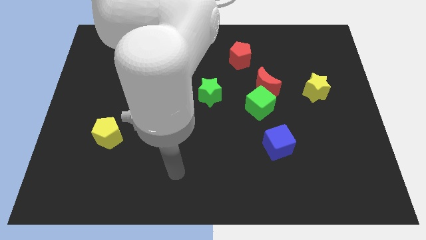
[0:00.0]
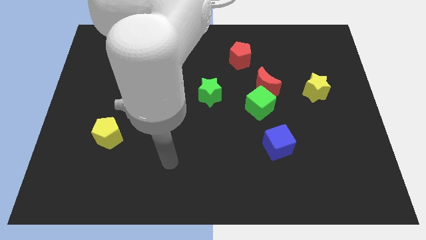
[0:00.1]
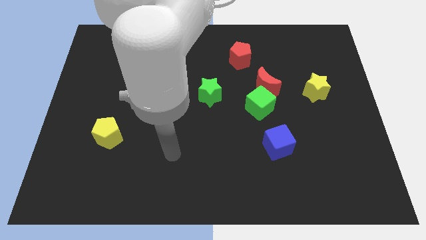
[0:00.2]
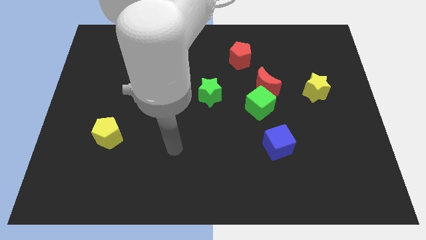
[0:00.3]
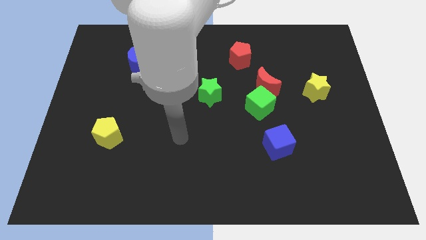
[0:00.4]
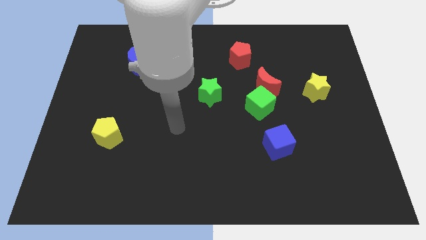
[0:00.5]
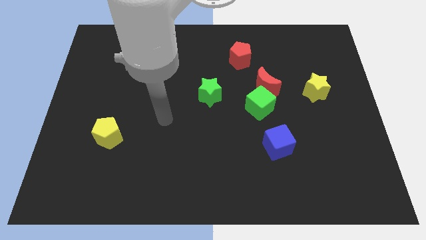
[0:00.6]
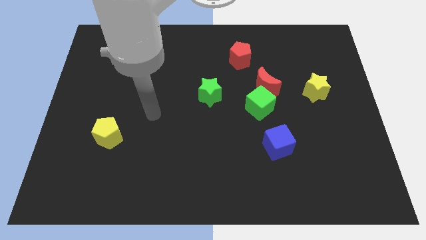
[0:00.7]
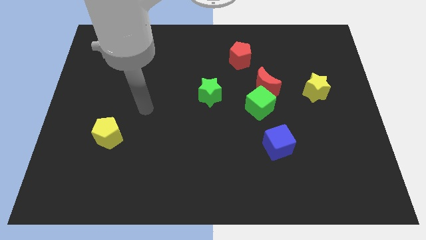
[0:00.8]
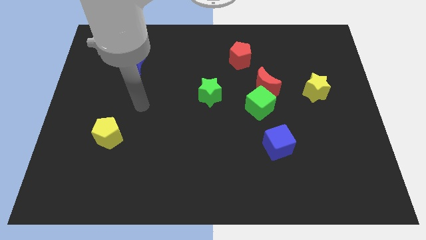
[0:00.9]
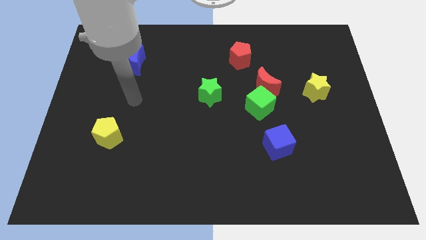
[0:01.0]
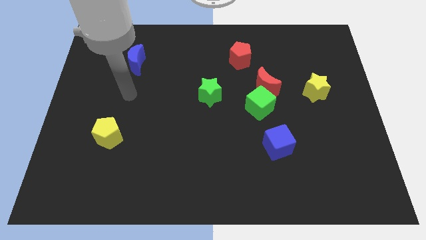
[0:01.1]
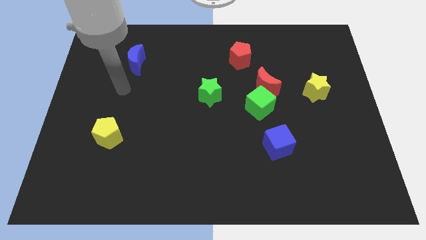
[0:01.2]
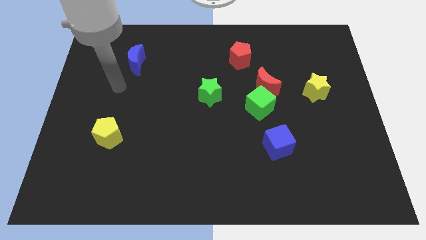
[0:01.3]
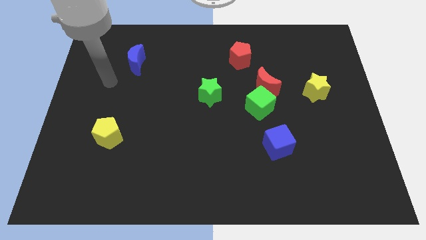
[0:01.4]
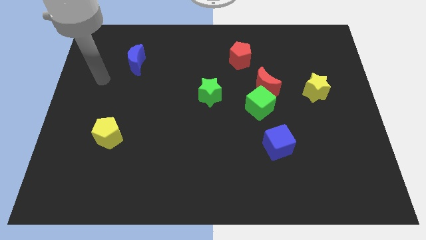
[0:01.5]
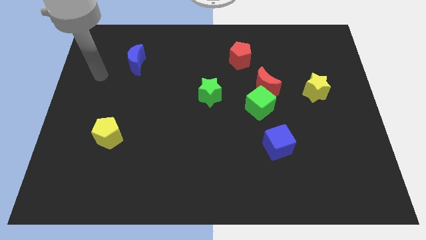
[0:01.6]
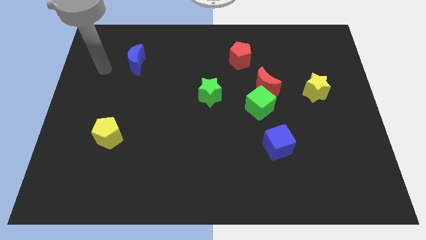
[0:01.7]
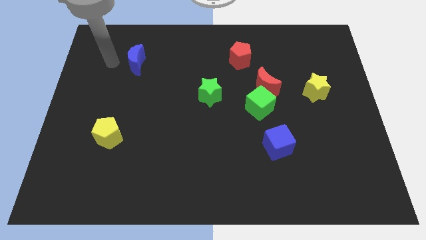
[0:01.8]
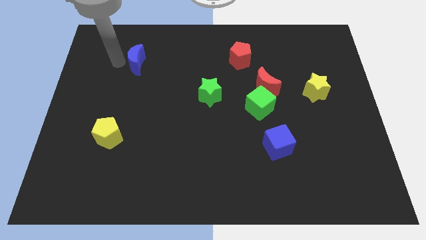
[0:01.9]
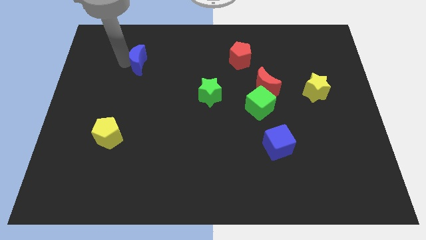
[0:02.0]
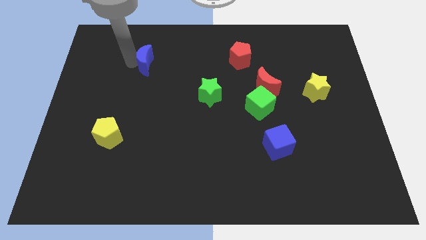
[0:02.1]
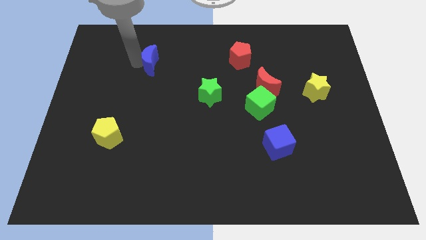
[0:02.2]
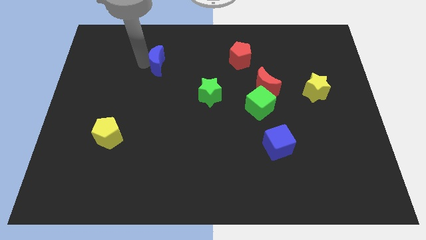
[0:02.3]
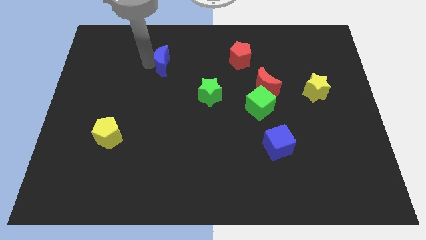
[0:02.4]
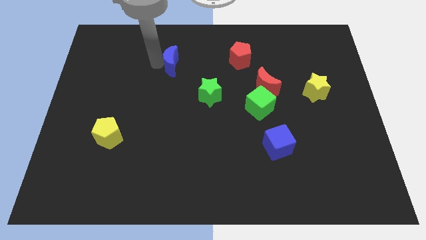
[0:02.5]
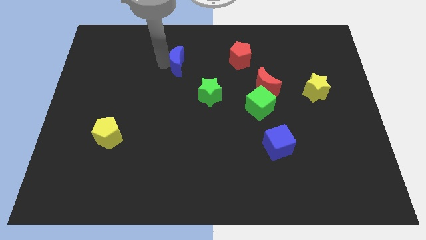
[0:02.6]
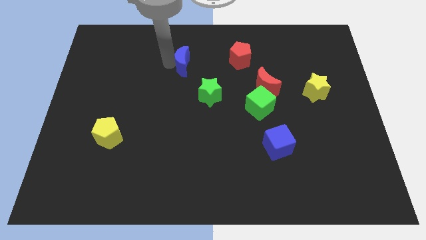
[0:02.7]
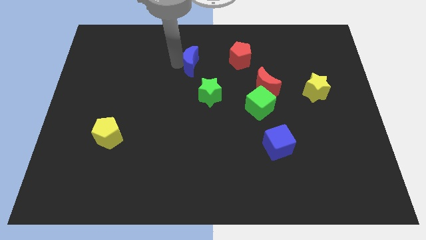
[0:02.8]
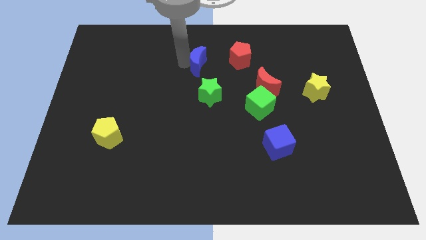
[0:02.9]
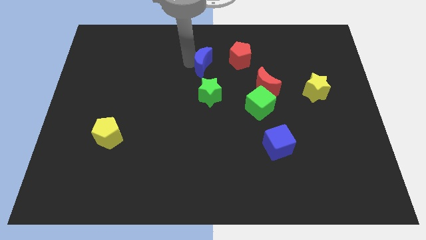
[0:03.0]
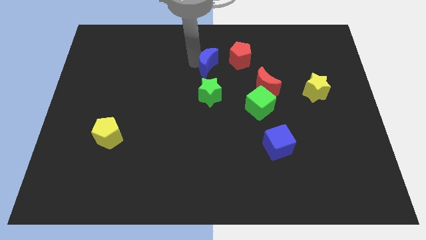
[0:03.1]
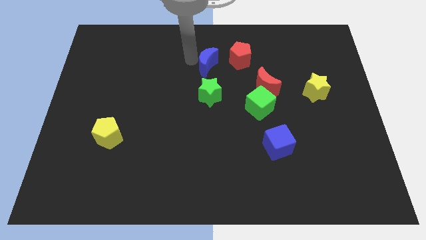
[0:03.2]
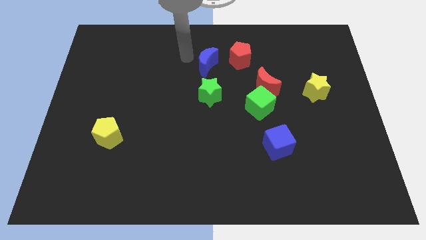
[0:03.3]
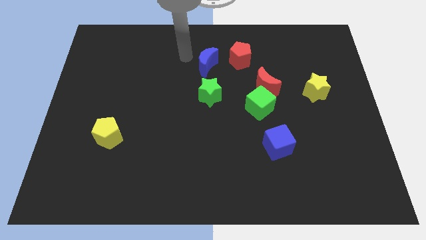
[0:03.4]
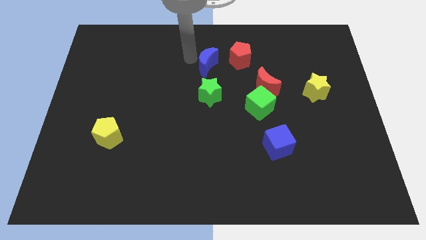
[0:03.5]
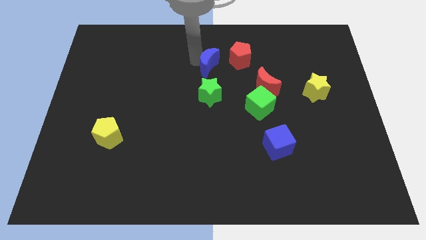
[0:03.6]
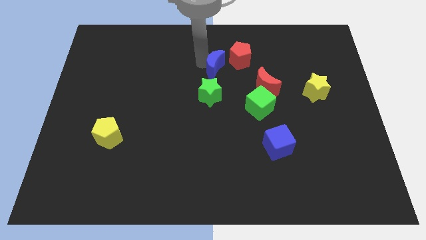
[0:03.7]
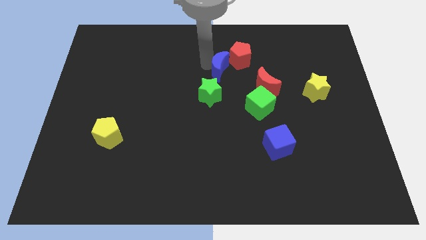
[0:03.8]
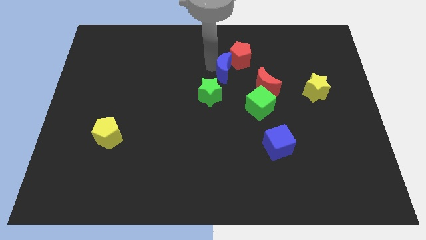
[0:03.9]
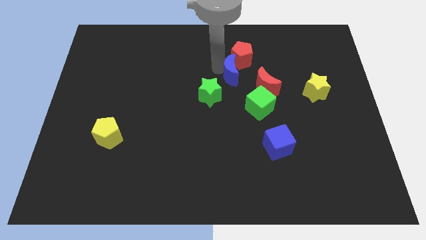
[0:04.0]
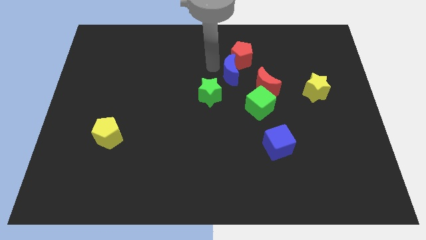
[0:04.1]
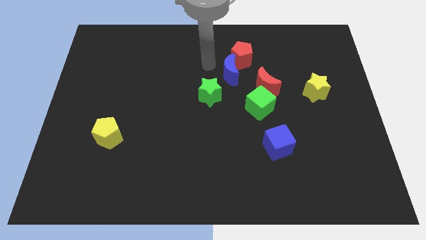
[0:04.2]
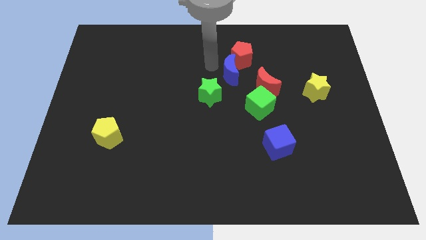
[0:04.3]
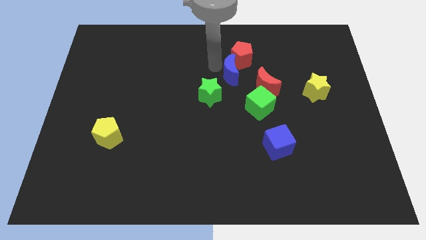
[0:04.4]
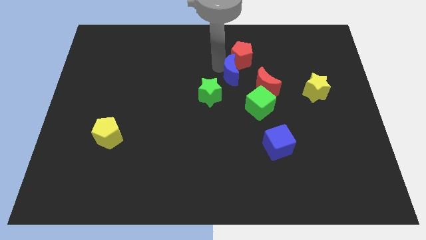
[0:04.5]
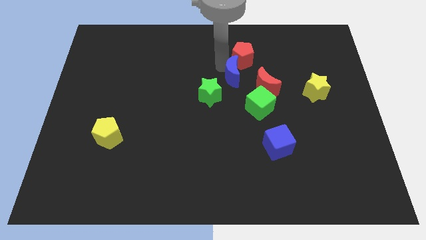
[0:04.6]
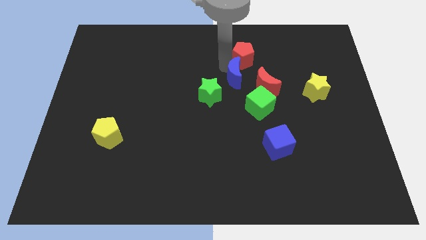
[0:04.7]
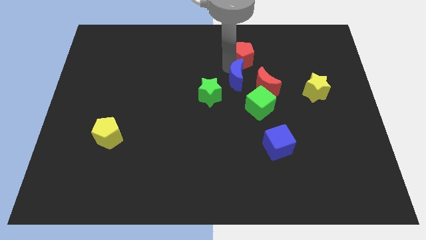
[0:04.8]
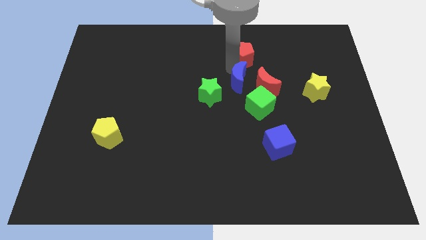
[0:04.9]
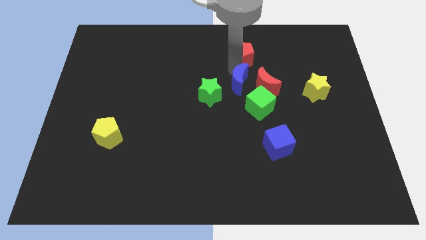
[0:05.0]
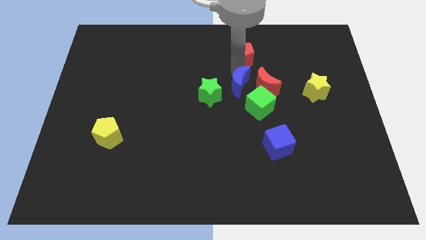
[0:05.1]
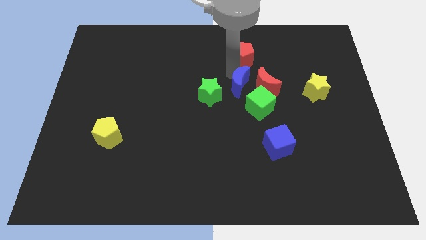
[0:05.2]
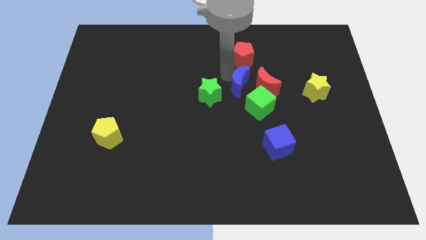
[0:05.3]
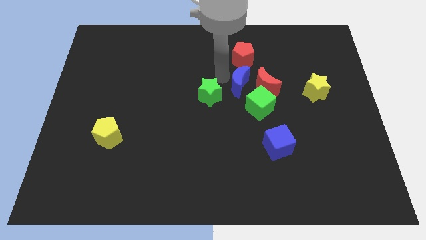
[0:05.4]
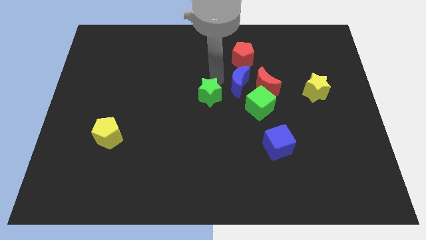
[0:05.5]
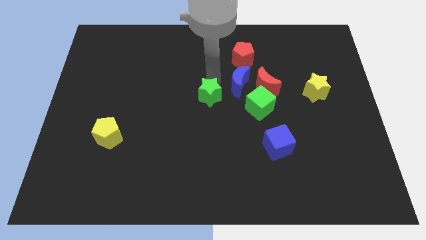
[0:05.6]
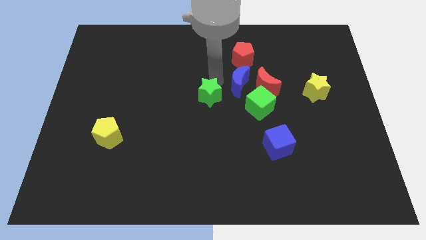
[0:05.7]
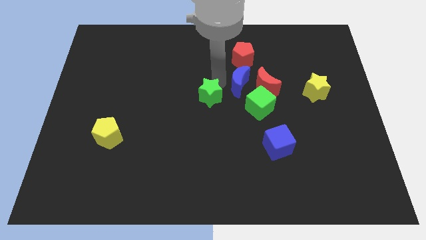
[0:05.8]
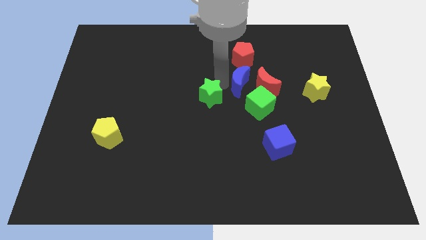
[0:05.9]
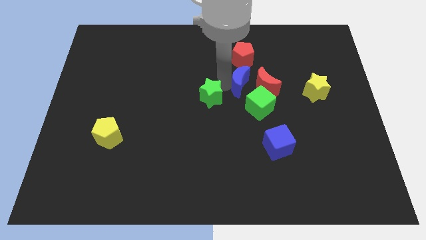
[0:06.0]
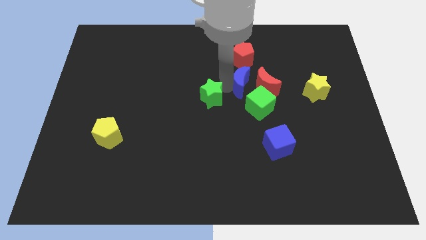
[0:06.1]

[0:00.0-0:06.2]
slide the blue moon towards the red moon
